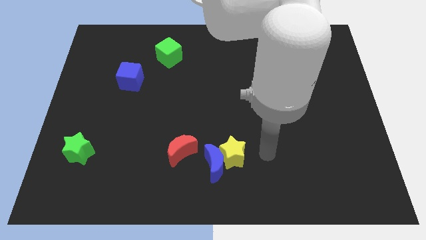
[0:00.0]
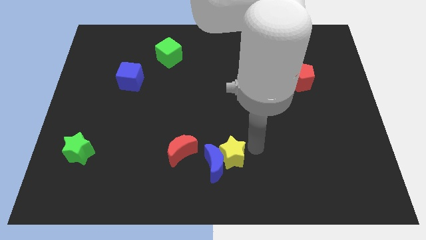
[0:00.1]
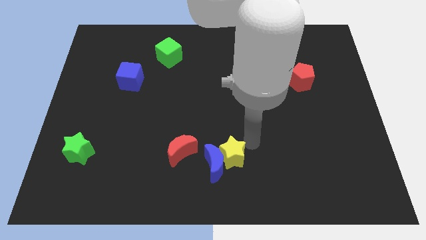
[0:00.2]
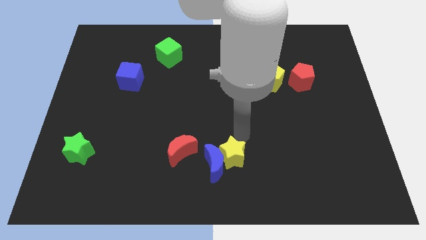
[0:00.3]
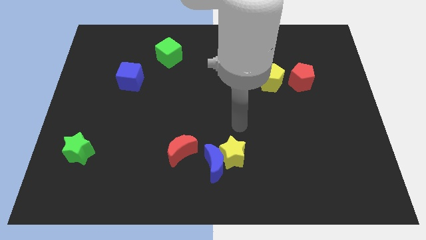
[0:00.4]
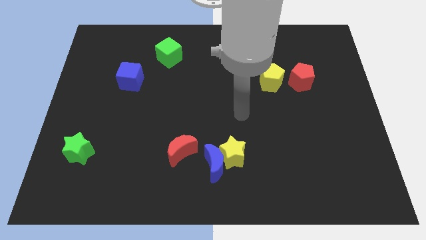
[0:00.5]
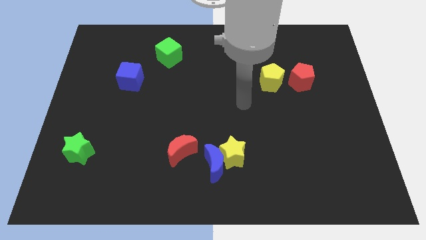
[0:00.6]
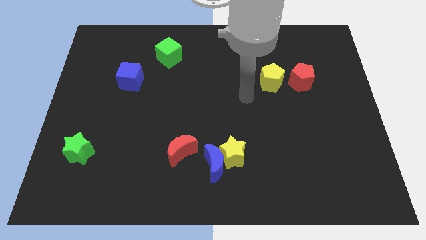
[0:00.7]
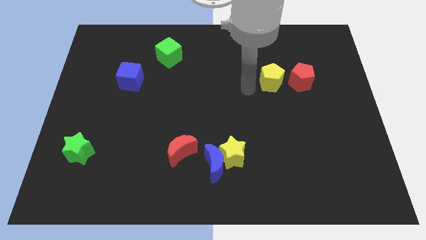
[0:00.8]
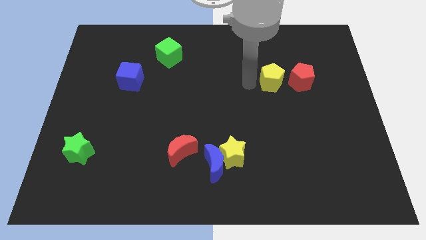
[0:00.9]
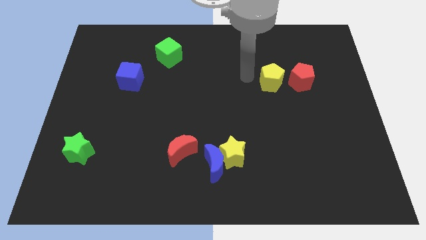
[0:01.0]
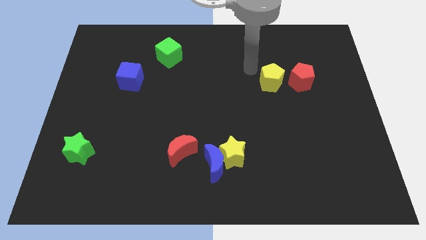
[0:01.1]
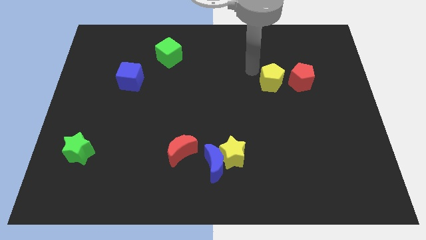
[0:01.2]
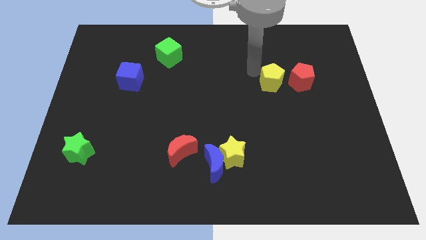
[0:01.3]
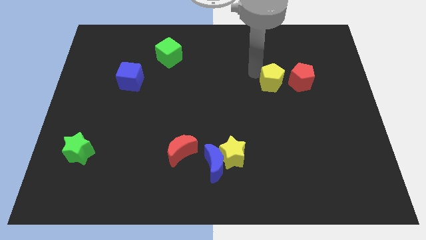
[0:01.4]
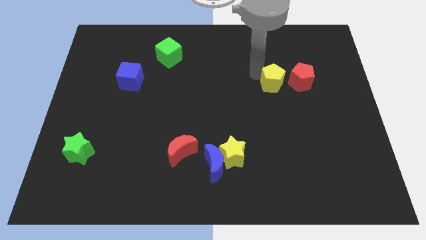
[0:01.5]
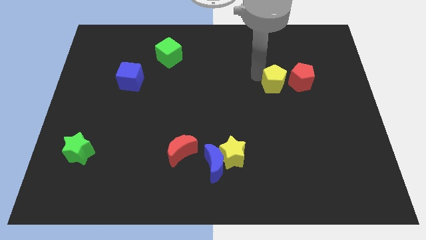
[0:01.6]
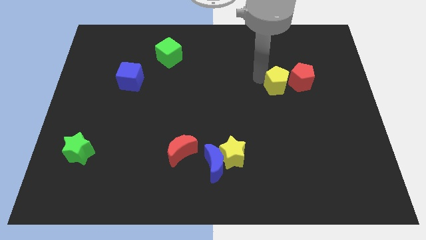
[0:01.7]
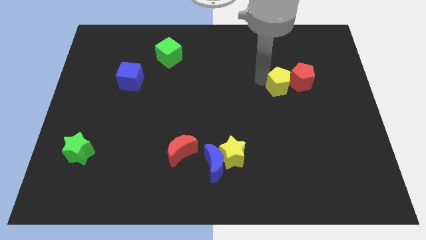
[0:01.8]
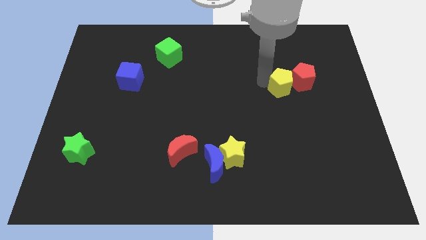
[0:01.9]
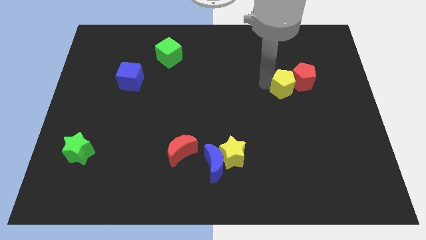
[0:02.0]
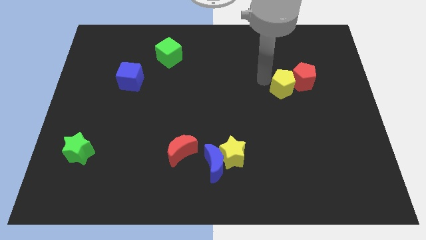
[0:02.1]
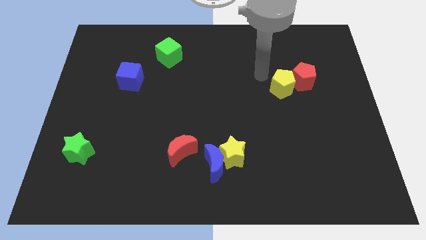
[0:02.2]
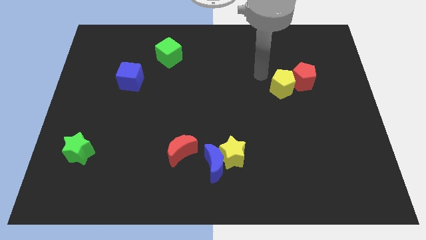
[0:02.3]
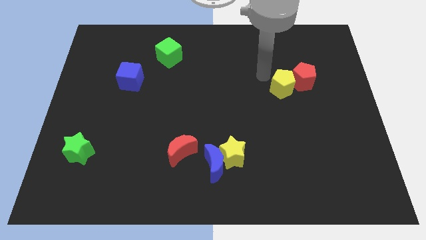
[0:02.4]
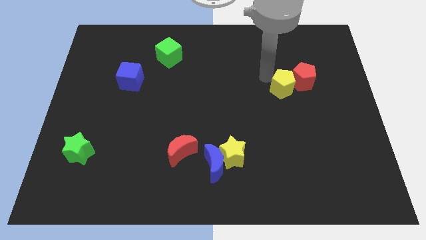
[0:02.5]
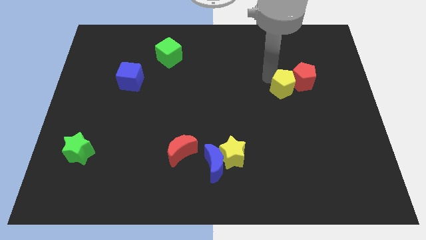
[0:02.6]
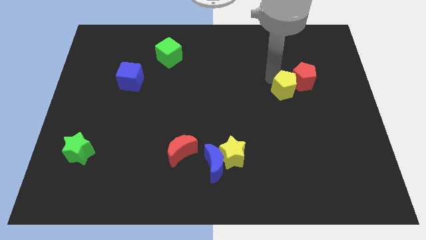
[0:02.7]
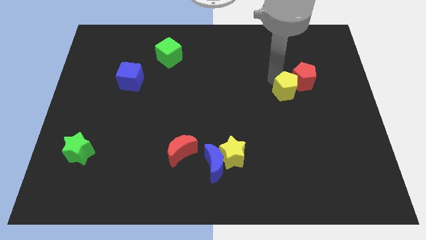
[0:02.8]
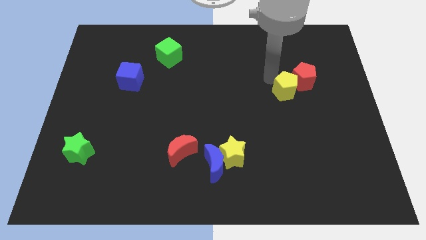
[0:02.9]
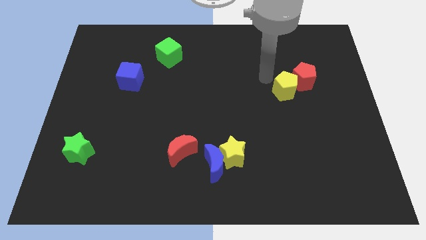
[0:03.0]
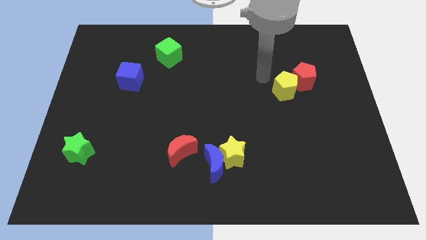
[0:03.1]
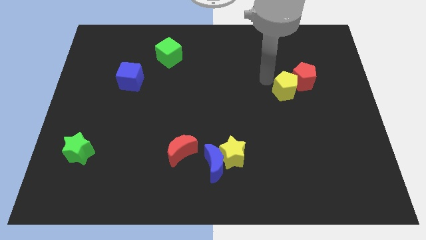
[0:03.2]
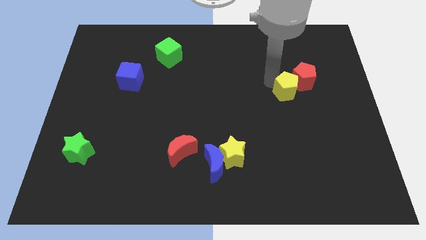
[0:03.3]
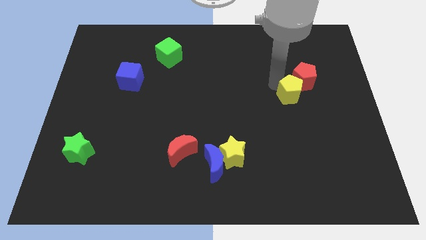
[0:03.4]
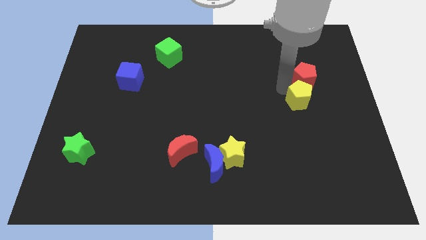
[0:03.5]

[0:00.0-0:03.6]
slightly push the yellow pentagon downwards and then to the right

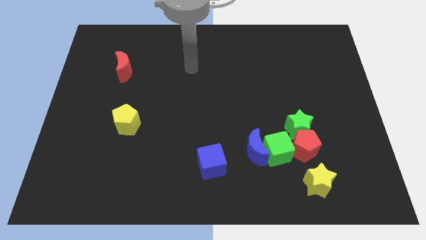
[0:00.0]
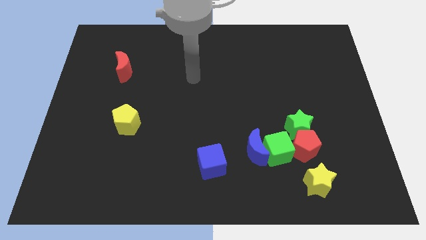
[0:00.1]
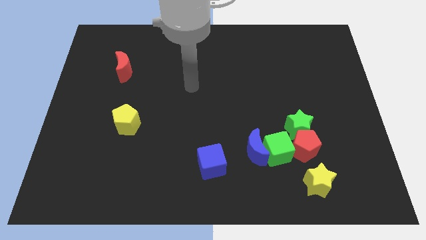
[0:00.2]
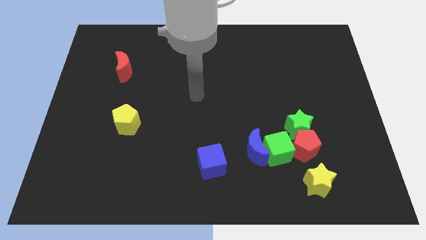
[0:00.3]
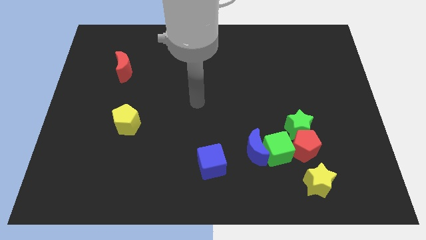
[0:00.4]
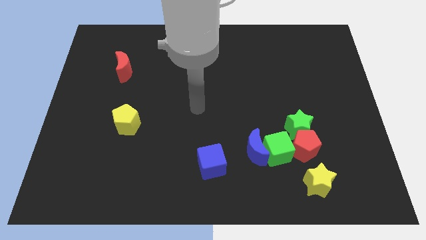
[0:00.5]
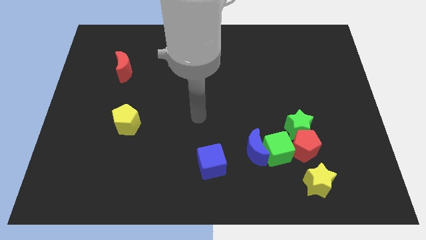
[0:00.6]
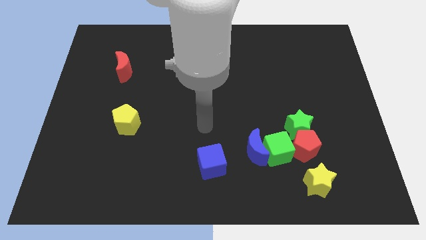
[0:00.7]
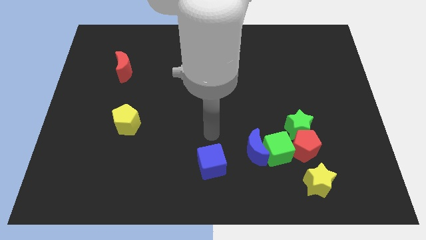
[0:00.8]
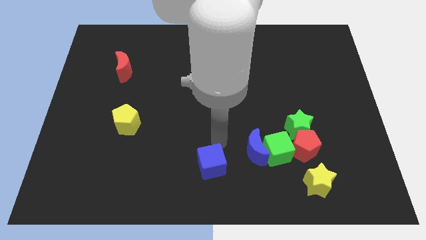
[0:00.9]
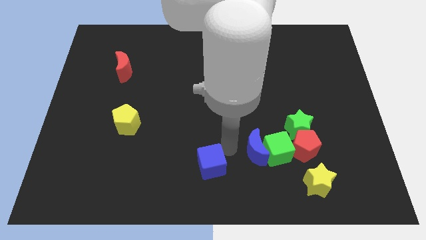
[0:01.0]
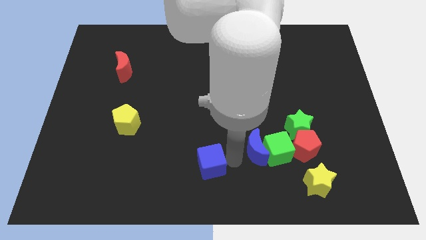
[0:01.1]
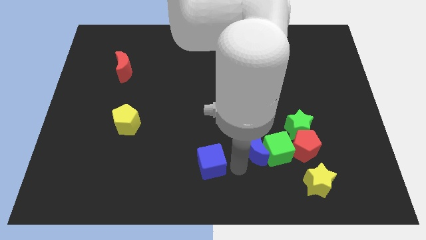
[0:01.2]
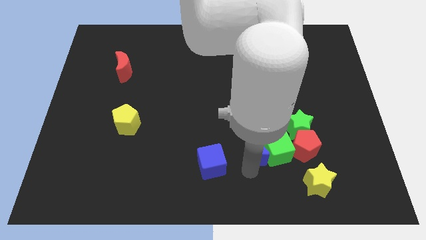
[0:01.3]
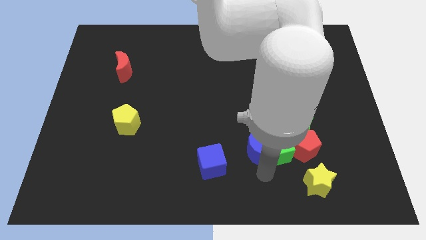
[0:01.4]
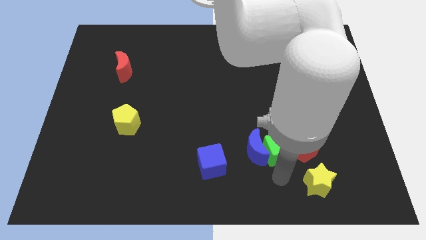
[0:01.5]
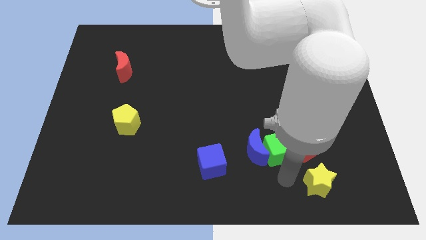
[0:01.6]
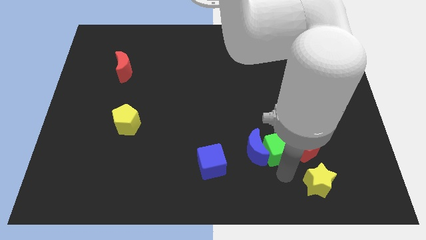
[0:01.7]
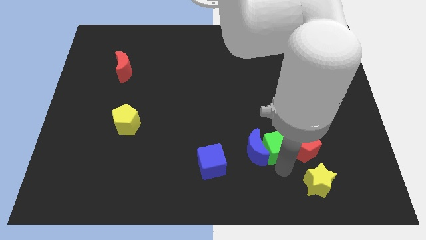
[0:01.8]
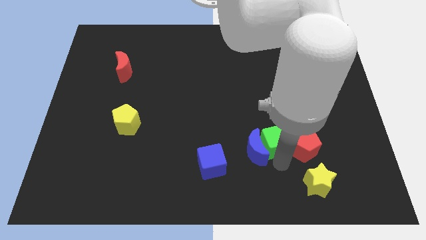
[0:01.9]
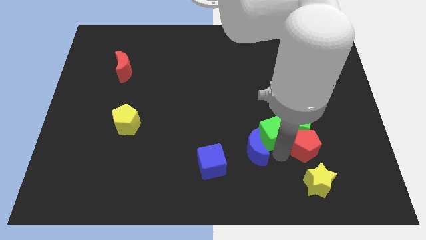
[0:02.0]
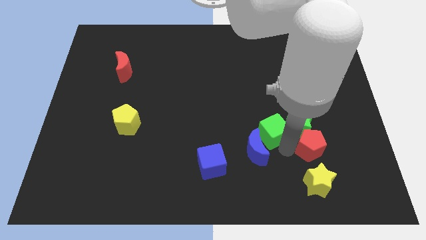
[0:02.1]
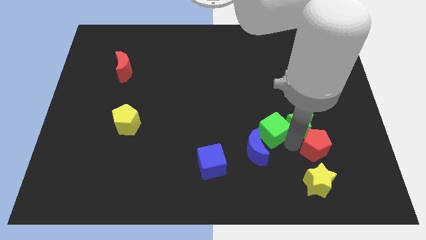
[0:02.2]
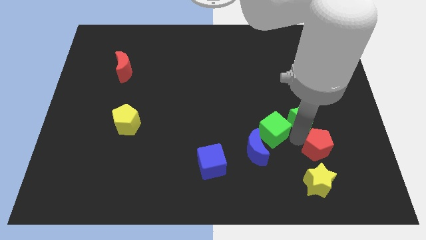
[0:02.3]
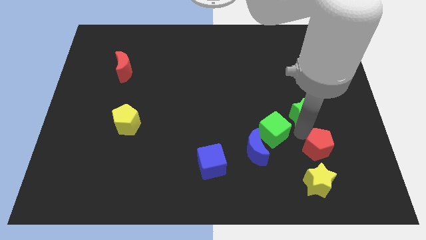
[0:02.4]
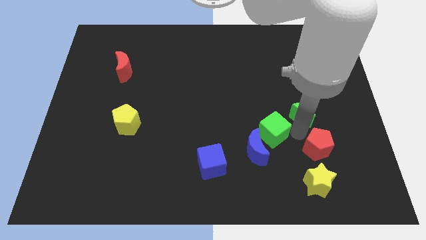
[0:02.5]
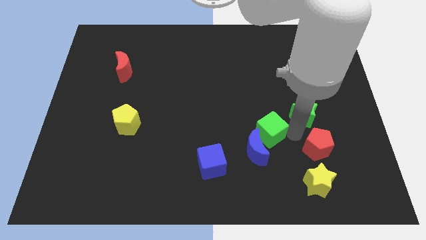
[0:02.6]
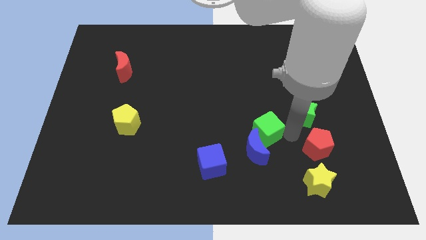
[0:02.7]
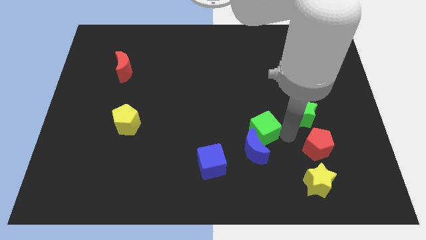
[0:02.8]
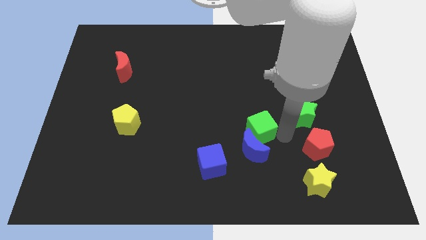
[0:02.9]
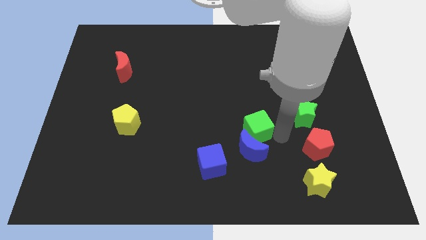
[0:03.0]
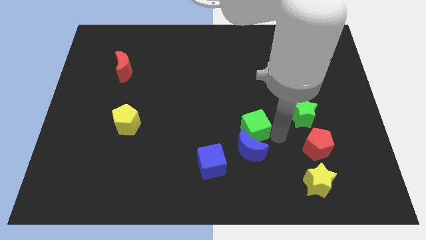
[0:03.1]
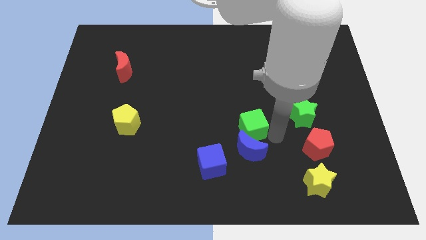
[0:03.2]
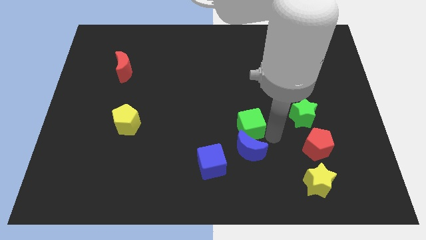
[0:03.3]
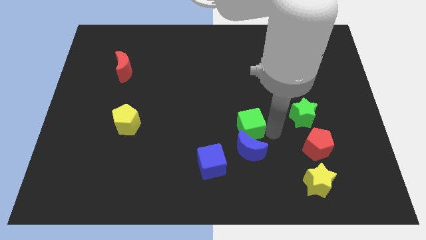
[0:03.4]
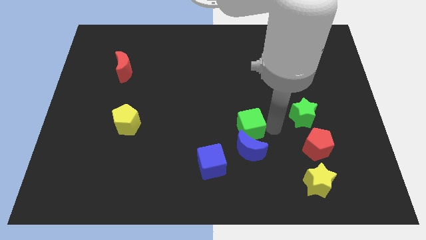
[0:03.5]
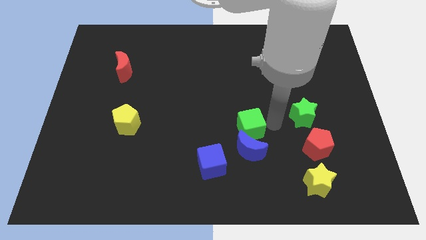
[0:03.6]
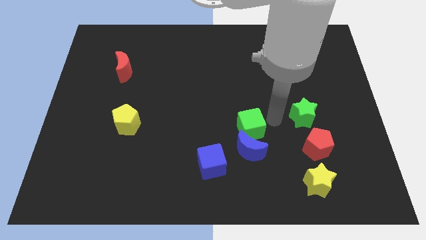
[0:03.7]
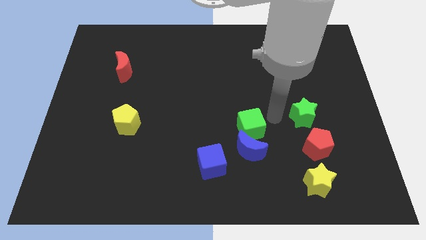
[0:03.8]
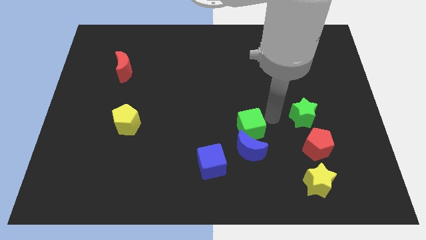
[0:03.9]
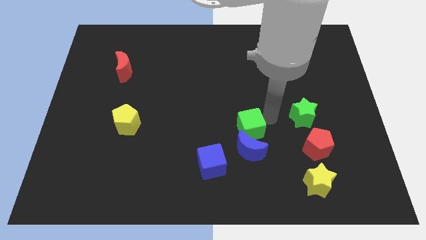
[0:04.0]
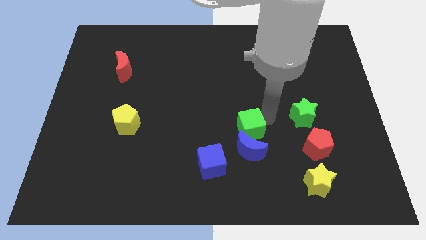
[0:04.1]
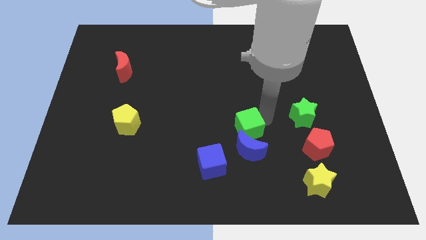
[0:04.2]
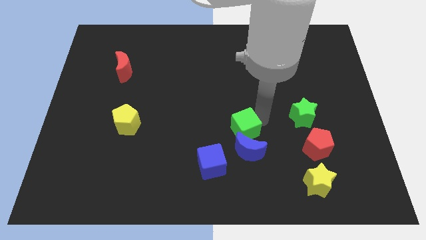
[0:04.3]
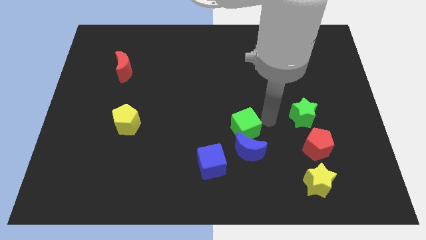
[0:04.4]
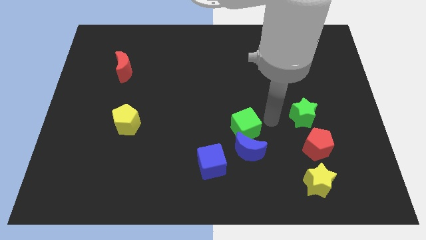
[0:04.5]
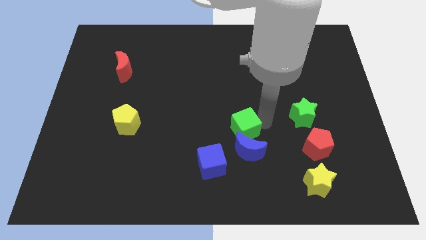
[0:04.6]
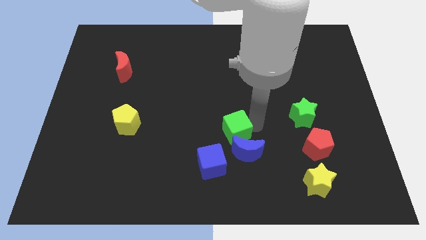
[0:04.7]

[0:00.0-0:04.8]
slide the green cube left a bit

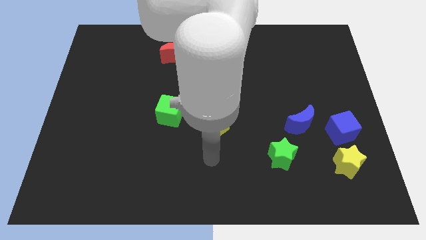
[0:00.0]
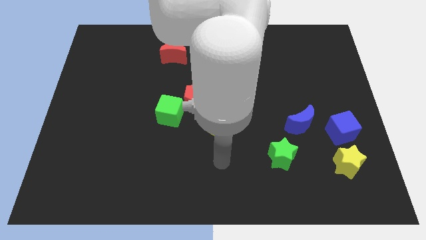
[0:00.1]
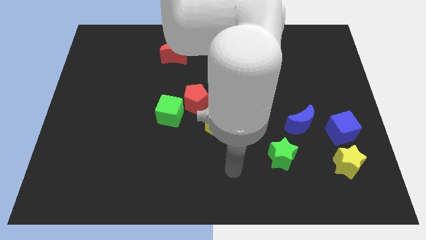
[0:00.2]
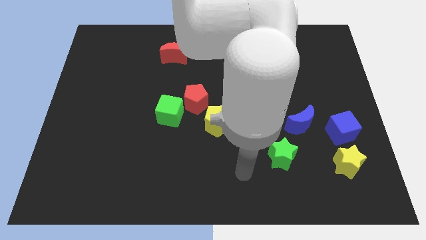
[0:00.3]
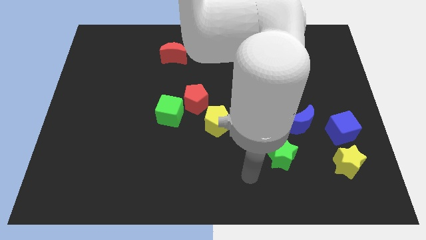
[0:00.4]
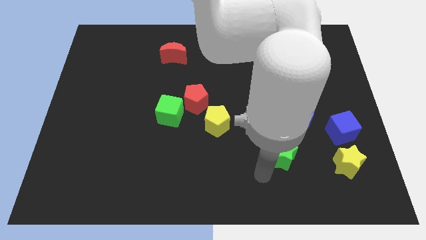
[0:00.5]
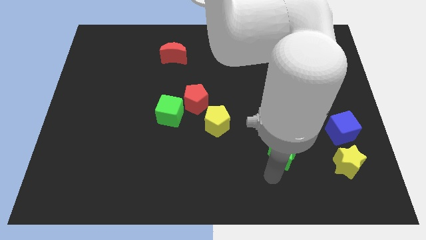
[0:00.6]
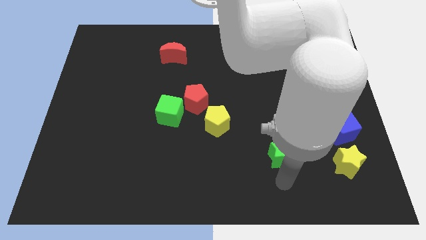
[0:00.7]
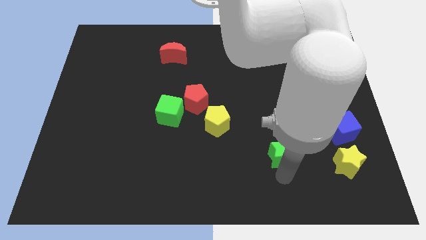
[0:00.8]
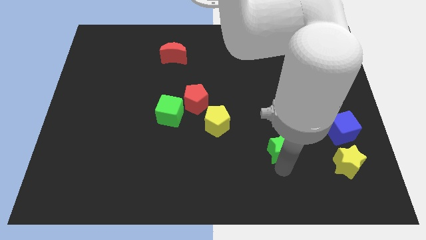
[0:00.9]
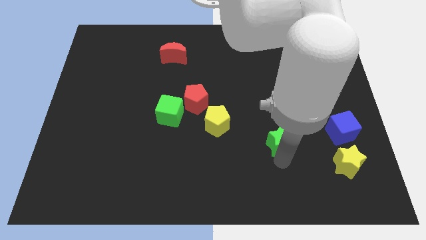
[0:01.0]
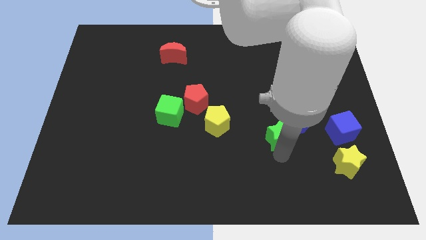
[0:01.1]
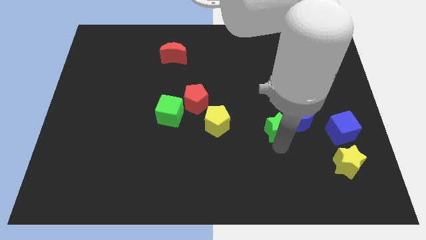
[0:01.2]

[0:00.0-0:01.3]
push the green star upwards slightly
